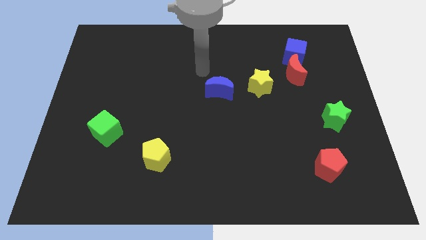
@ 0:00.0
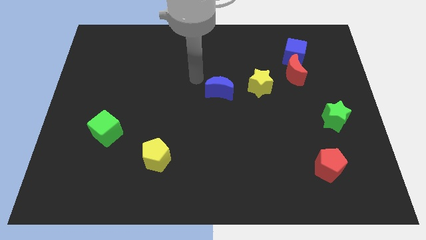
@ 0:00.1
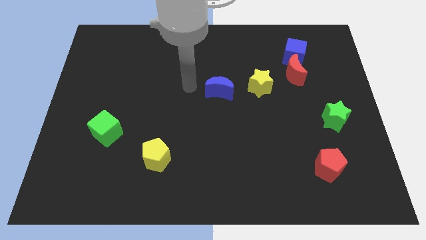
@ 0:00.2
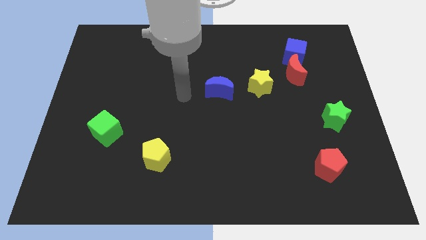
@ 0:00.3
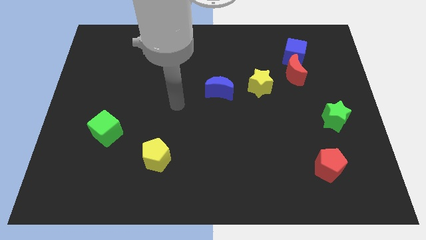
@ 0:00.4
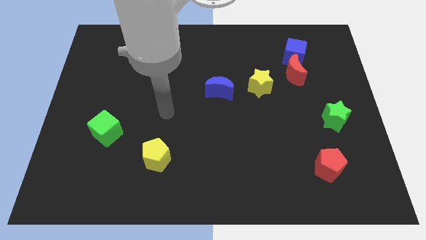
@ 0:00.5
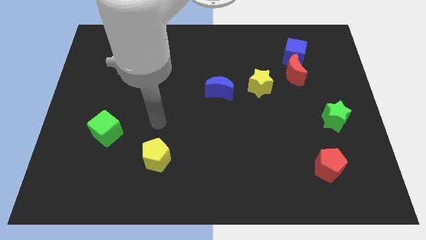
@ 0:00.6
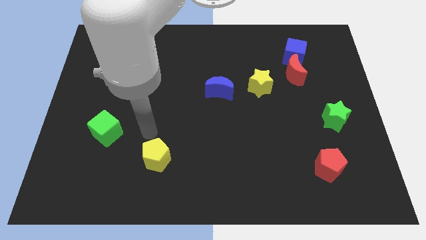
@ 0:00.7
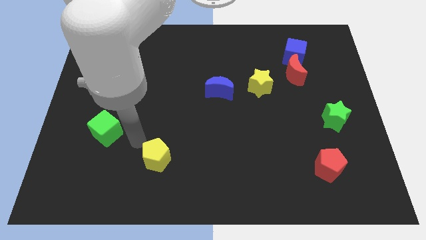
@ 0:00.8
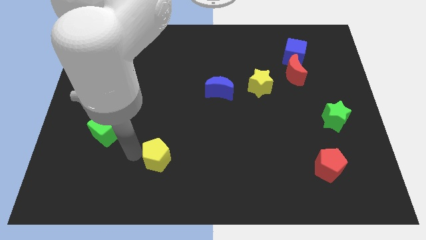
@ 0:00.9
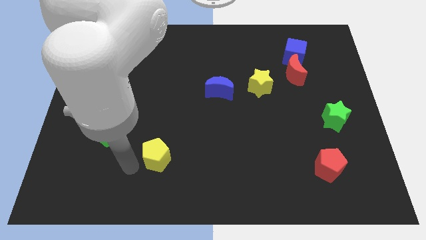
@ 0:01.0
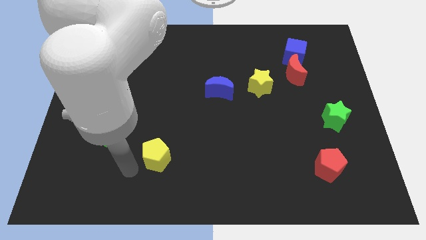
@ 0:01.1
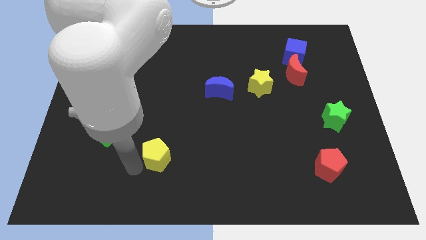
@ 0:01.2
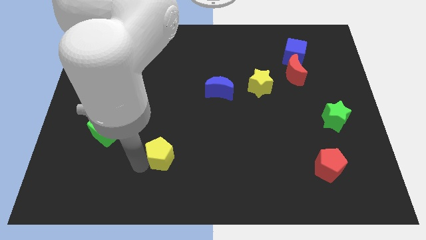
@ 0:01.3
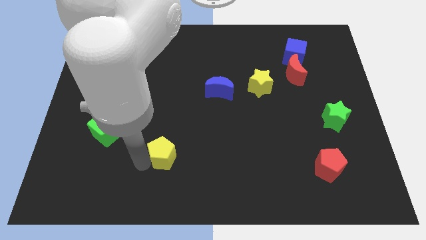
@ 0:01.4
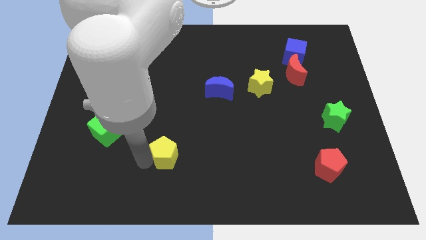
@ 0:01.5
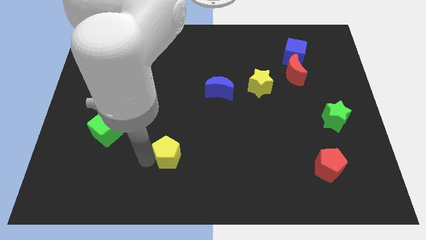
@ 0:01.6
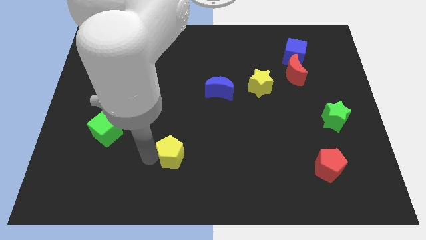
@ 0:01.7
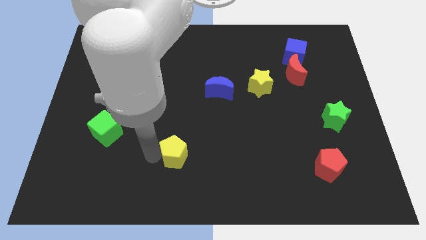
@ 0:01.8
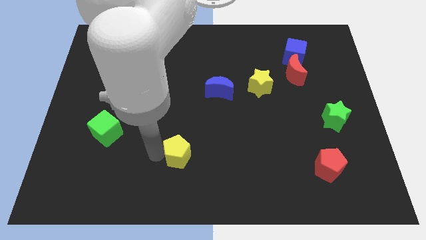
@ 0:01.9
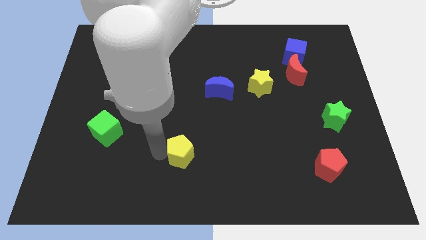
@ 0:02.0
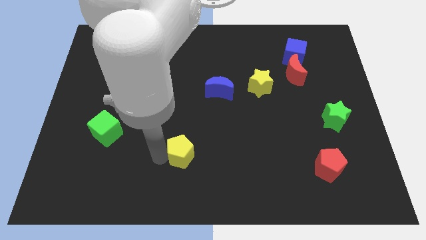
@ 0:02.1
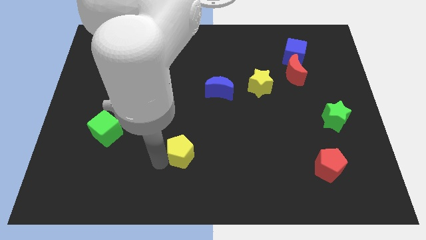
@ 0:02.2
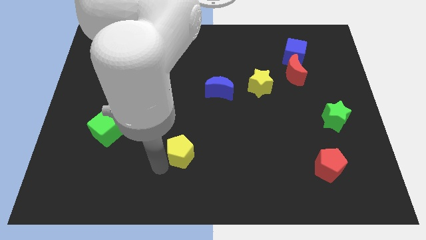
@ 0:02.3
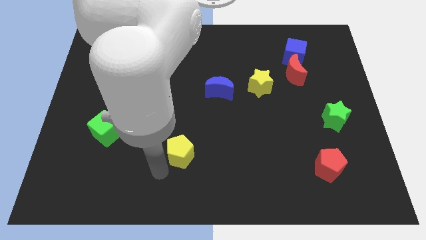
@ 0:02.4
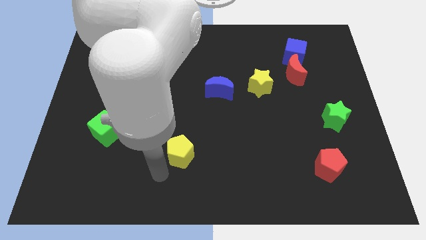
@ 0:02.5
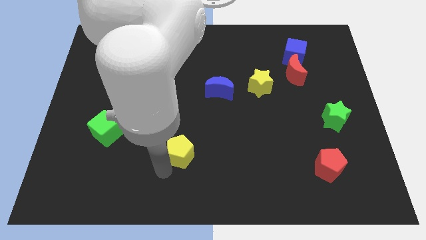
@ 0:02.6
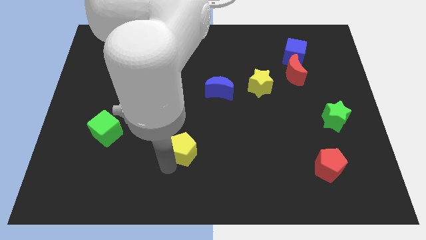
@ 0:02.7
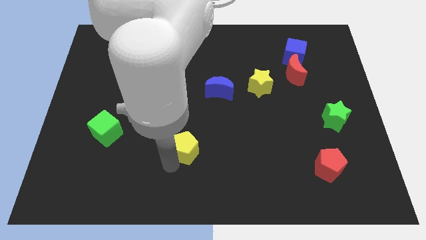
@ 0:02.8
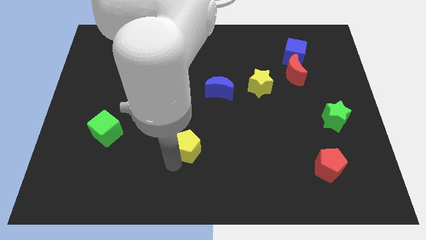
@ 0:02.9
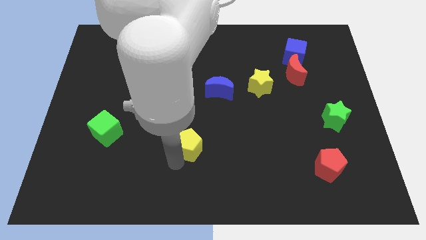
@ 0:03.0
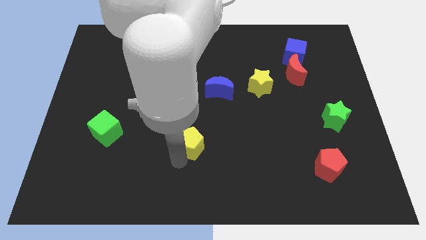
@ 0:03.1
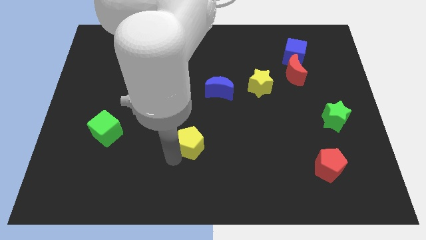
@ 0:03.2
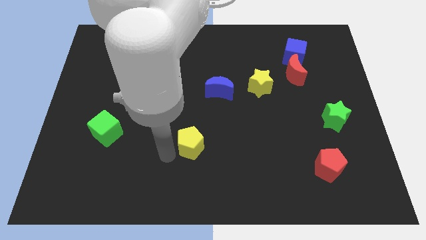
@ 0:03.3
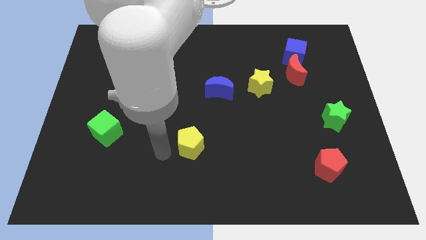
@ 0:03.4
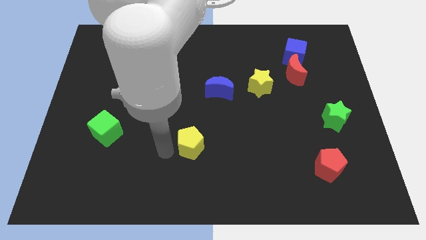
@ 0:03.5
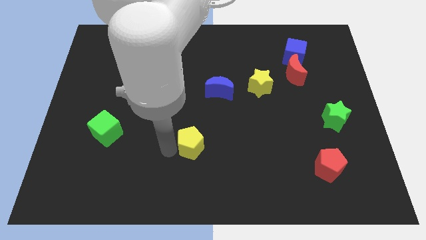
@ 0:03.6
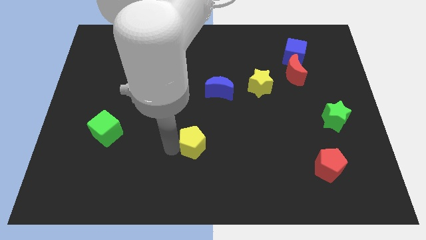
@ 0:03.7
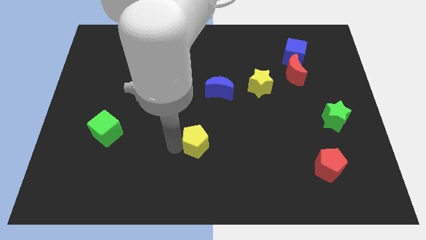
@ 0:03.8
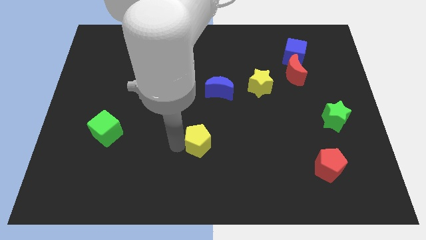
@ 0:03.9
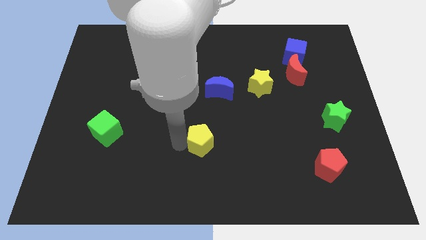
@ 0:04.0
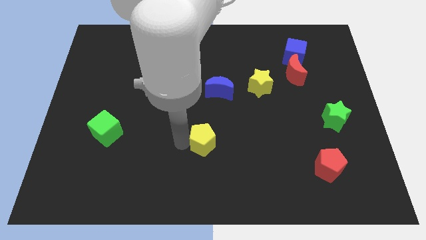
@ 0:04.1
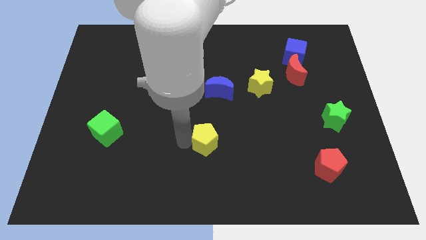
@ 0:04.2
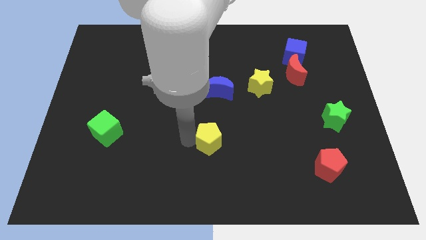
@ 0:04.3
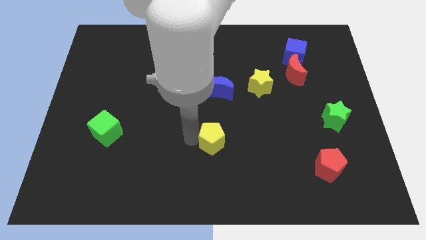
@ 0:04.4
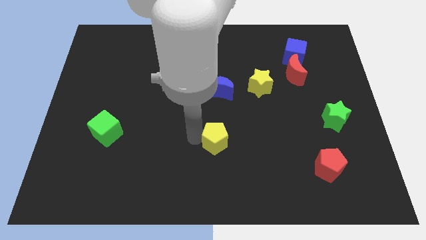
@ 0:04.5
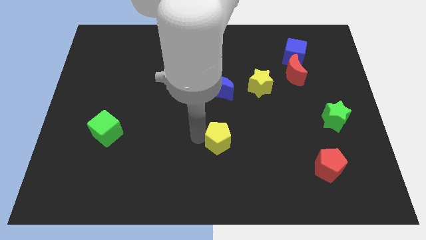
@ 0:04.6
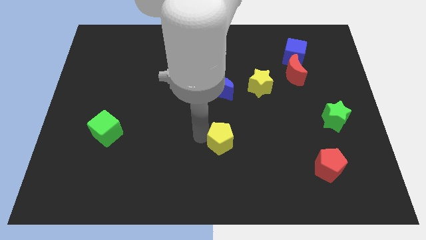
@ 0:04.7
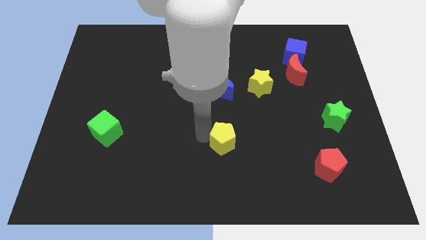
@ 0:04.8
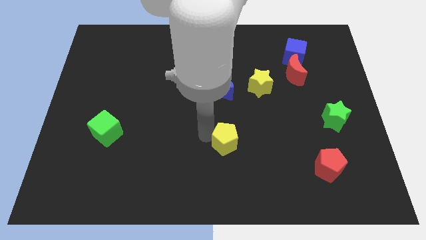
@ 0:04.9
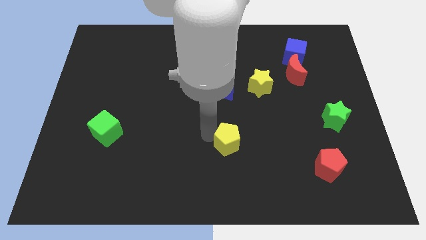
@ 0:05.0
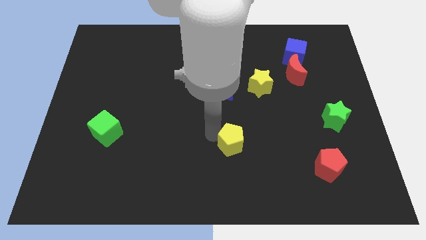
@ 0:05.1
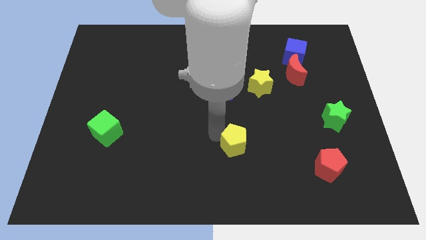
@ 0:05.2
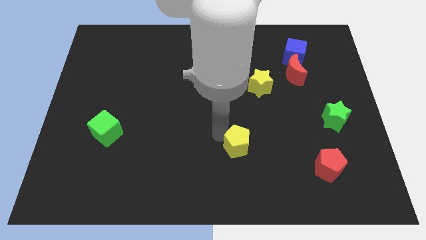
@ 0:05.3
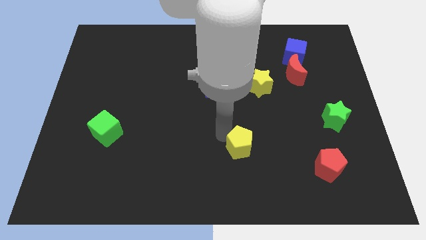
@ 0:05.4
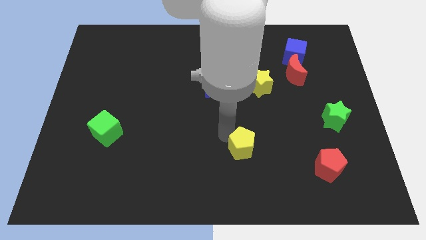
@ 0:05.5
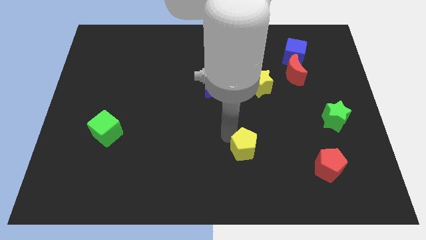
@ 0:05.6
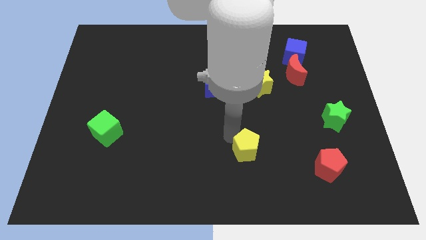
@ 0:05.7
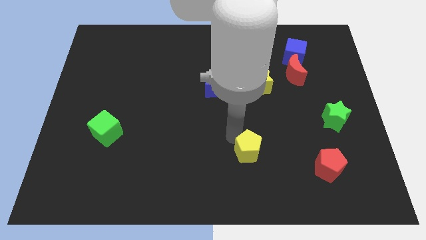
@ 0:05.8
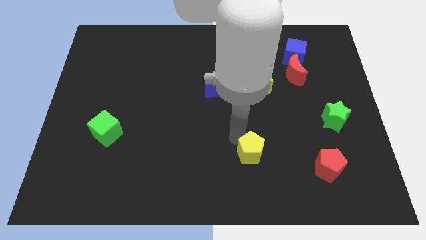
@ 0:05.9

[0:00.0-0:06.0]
push the yellow pentagon to the right

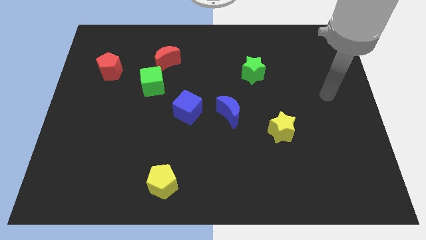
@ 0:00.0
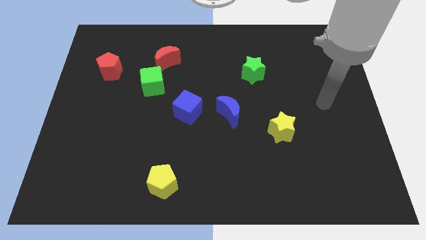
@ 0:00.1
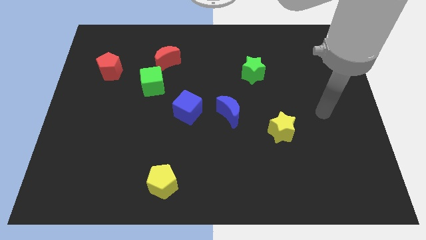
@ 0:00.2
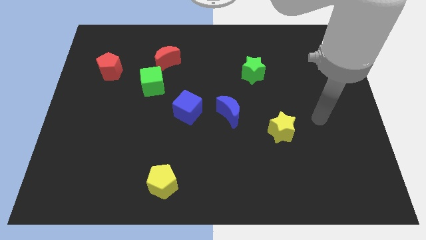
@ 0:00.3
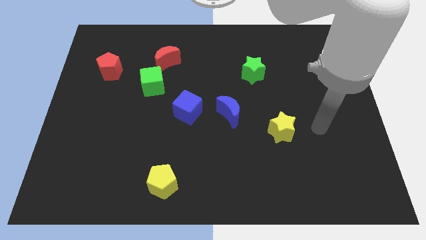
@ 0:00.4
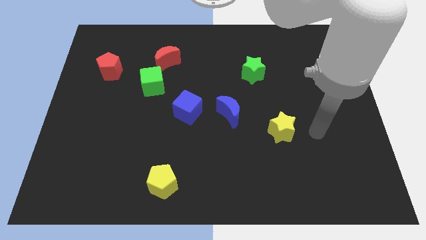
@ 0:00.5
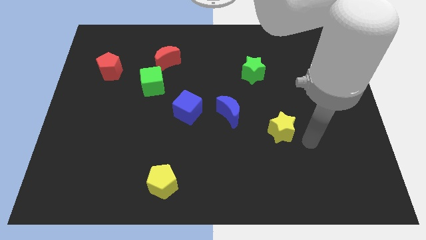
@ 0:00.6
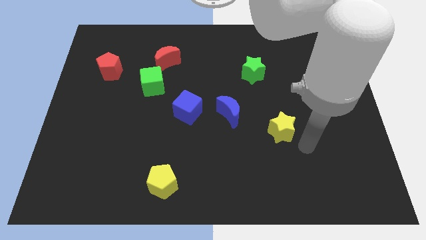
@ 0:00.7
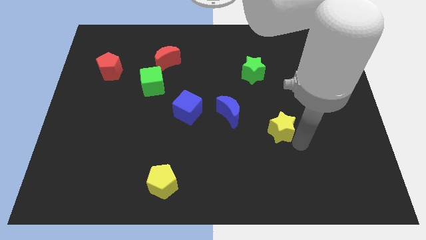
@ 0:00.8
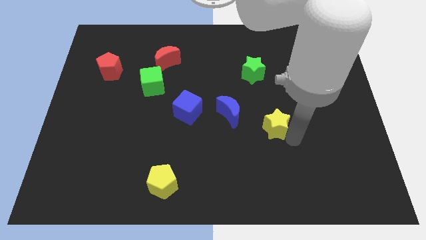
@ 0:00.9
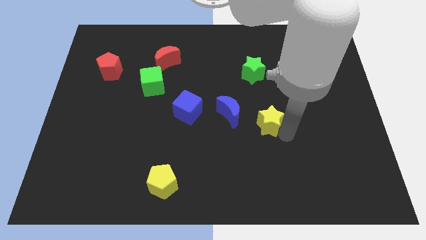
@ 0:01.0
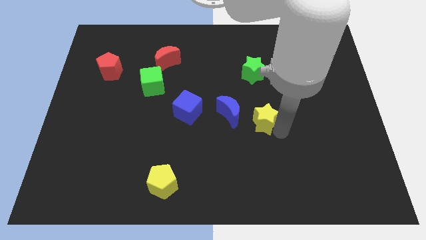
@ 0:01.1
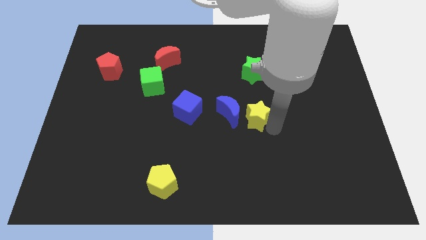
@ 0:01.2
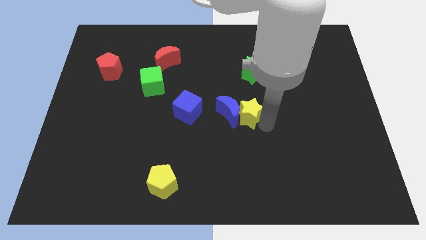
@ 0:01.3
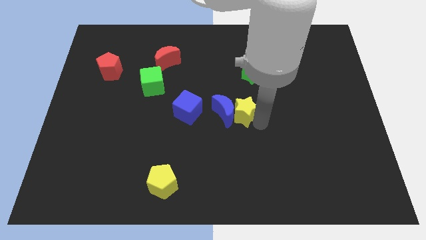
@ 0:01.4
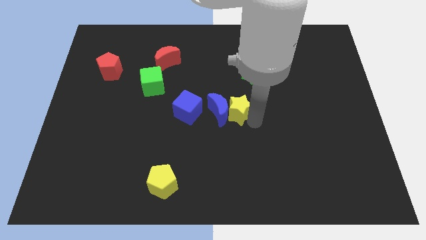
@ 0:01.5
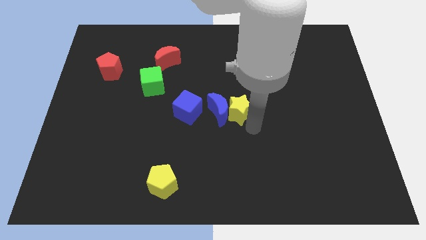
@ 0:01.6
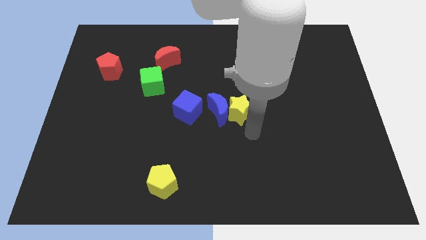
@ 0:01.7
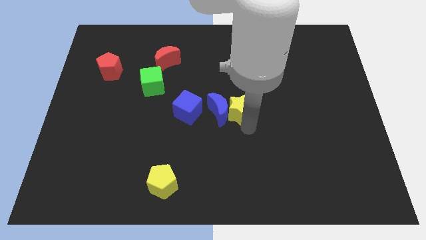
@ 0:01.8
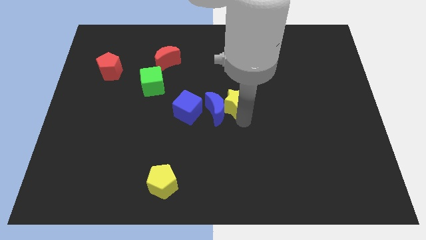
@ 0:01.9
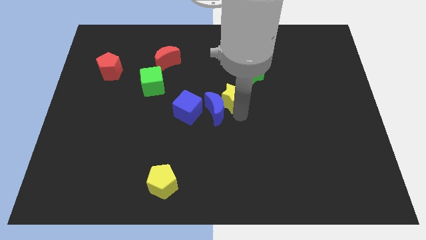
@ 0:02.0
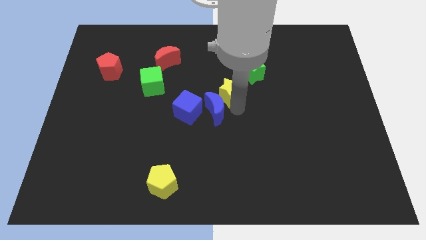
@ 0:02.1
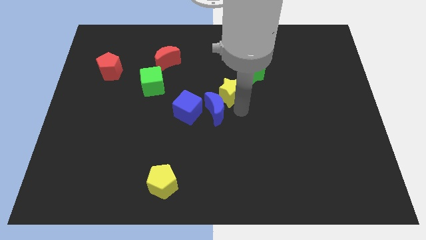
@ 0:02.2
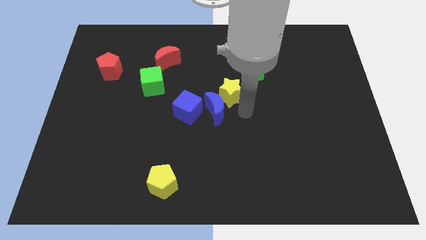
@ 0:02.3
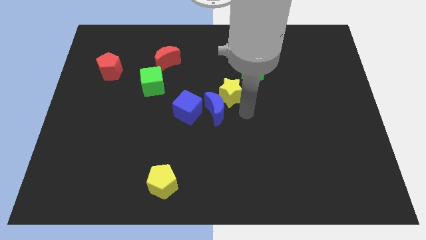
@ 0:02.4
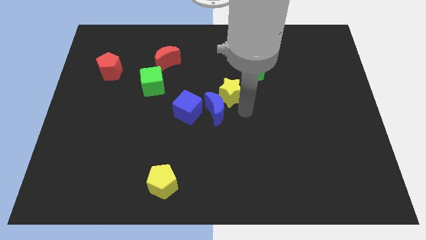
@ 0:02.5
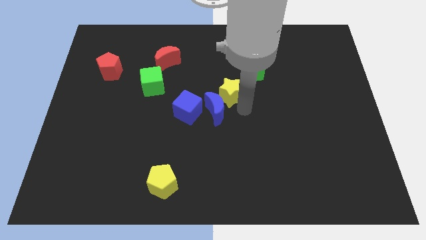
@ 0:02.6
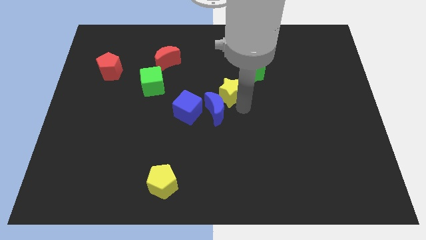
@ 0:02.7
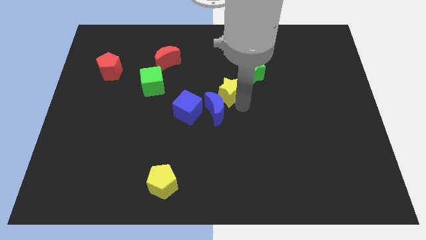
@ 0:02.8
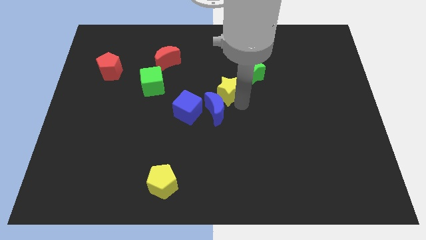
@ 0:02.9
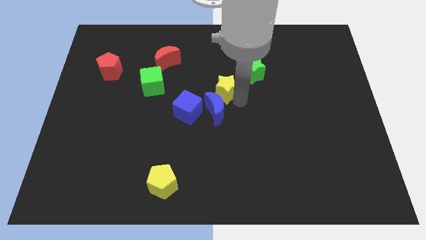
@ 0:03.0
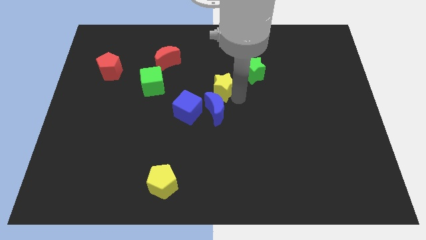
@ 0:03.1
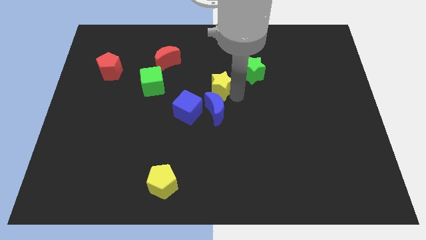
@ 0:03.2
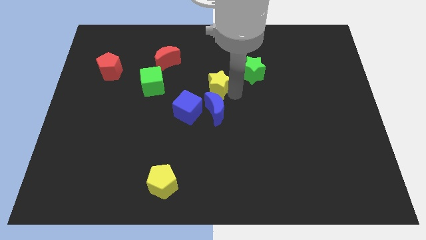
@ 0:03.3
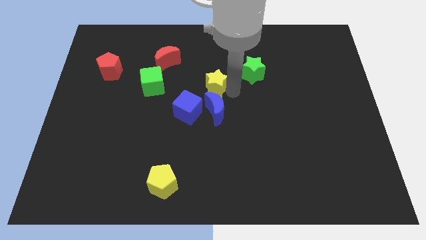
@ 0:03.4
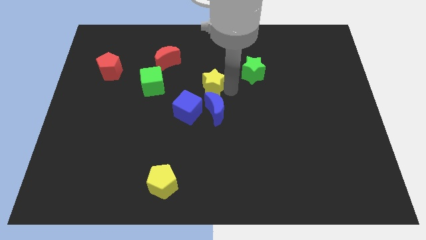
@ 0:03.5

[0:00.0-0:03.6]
push the yellow star up and then to the left
